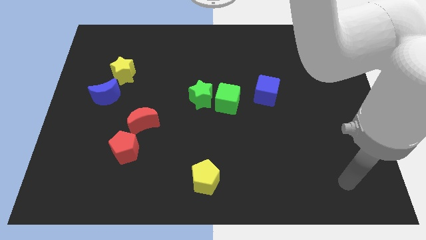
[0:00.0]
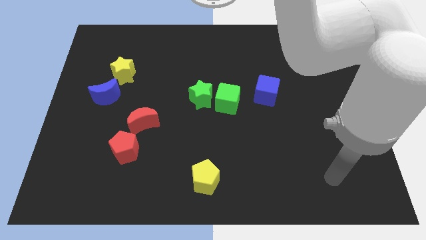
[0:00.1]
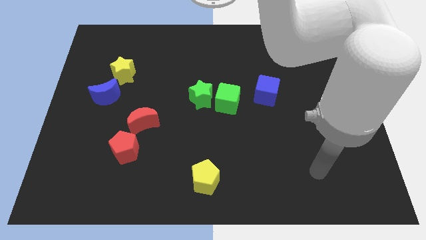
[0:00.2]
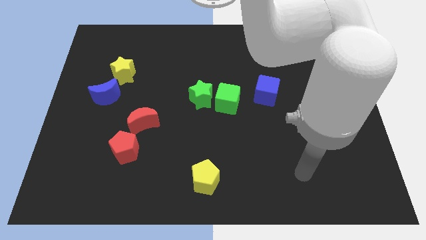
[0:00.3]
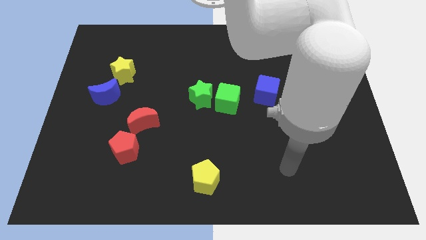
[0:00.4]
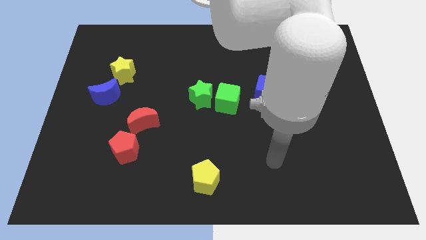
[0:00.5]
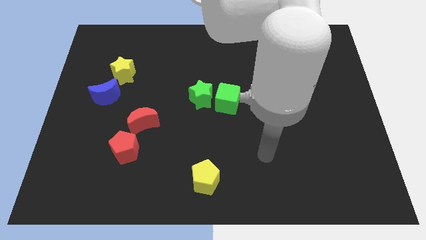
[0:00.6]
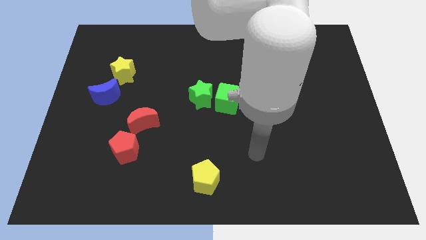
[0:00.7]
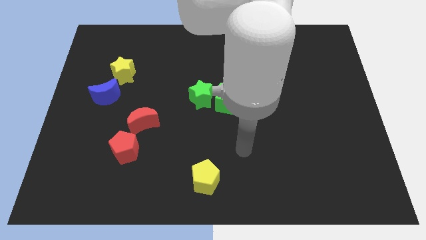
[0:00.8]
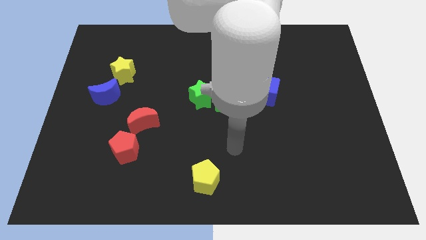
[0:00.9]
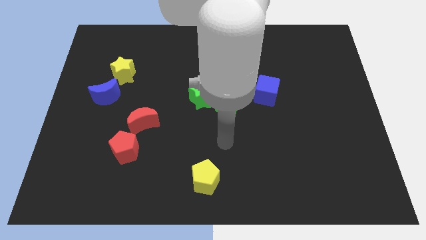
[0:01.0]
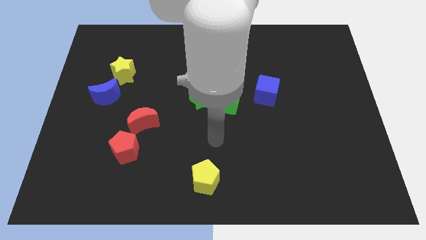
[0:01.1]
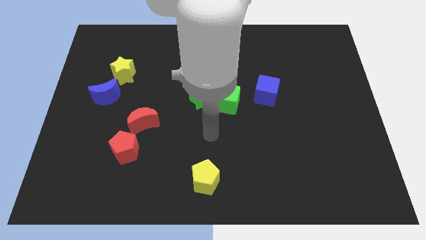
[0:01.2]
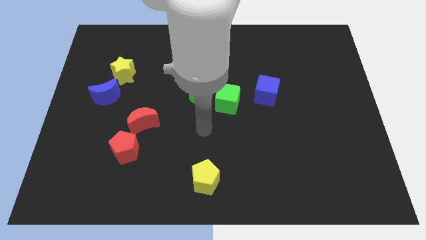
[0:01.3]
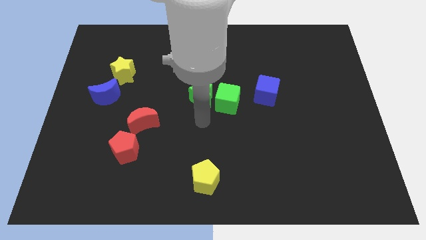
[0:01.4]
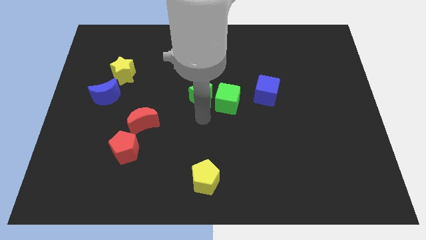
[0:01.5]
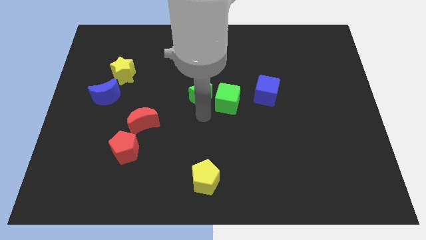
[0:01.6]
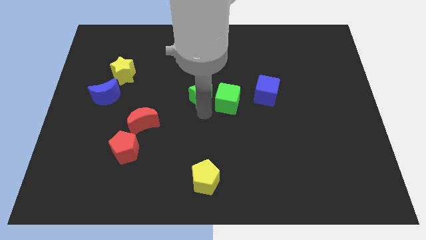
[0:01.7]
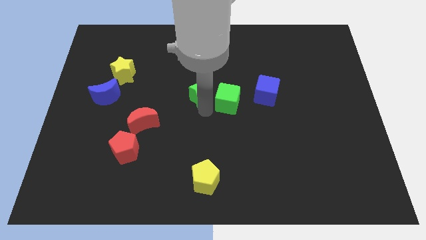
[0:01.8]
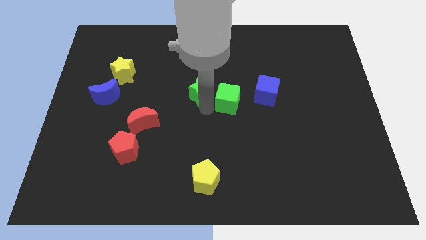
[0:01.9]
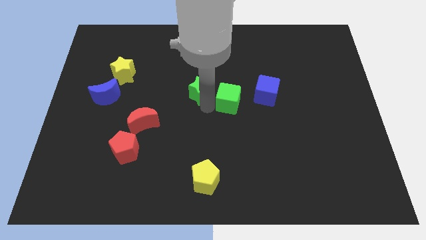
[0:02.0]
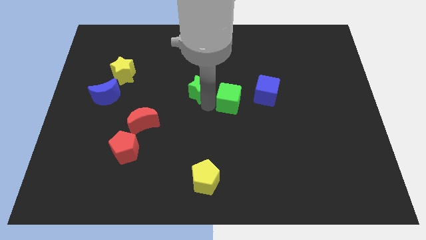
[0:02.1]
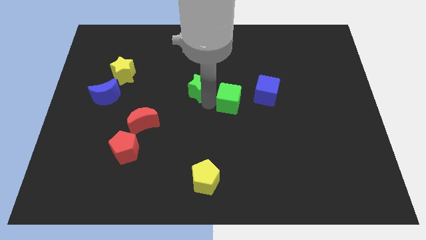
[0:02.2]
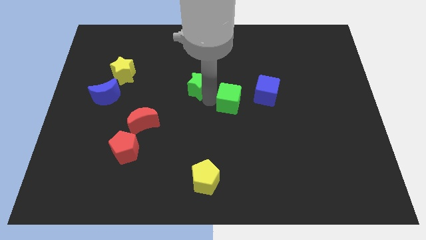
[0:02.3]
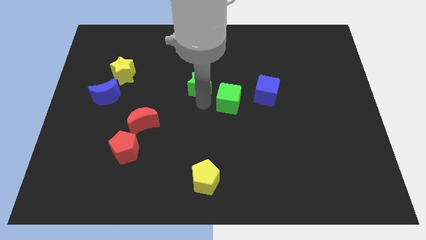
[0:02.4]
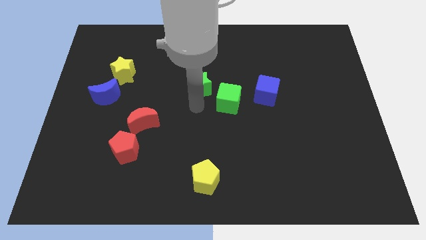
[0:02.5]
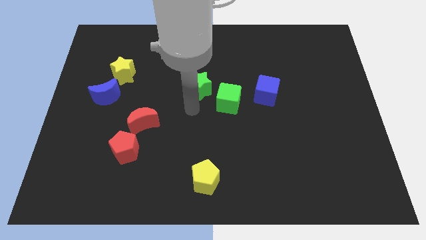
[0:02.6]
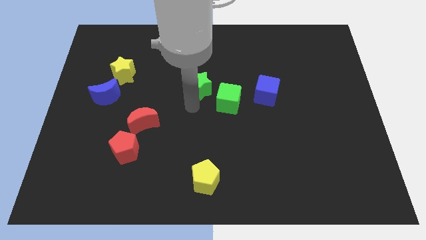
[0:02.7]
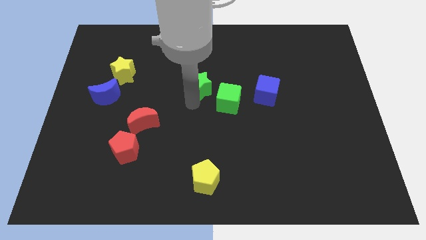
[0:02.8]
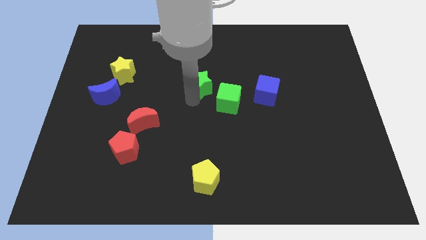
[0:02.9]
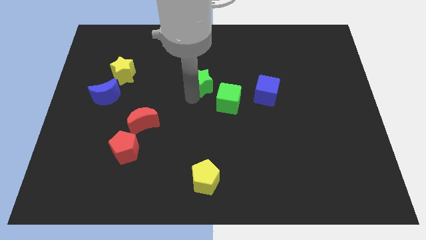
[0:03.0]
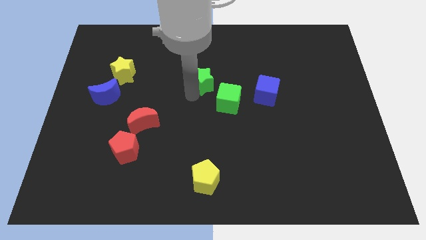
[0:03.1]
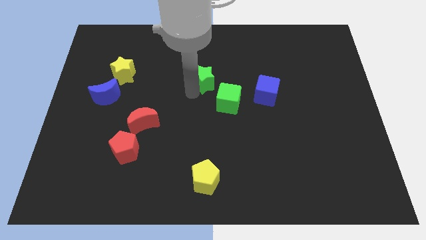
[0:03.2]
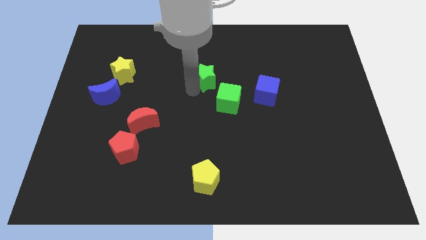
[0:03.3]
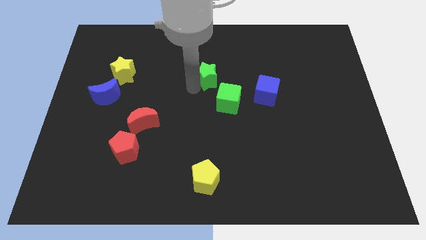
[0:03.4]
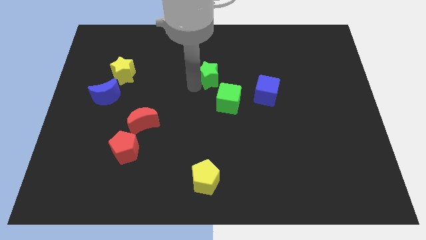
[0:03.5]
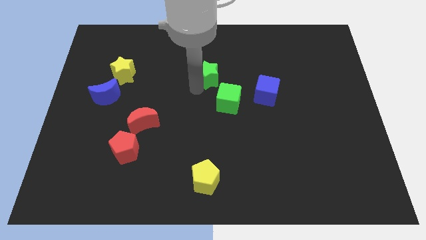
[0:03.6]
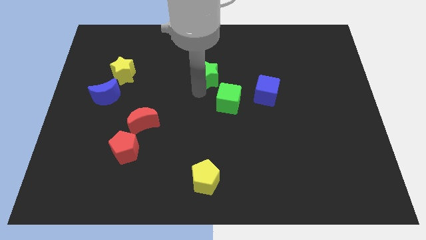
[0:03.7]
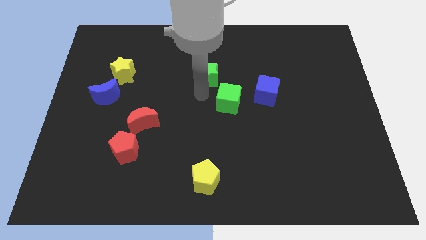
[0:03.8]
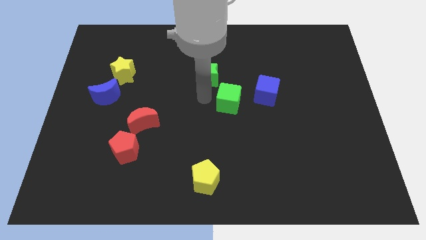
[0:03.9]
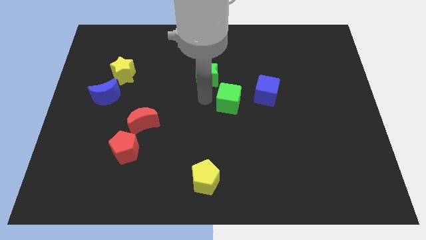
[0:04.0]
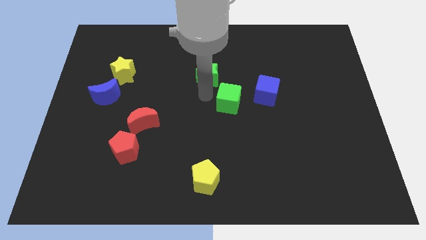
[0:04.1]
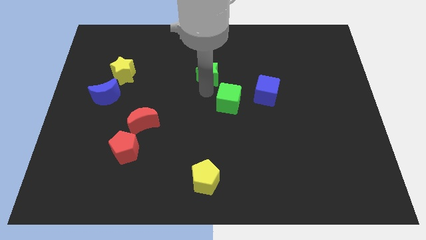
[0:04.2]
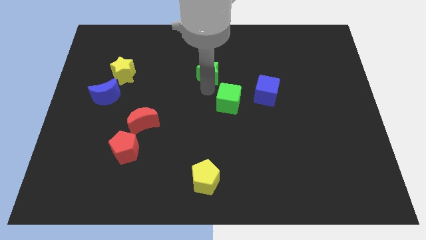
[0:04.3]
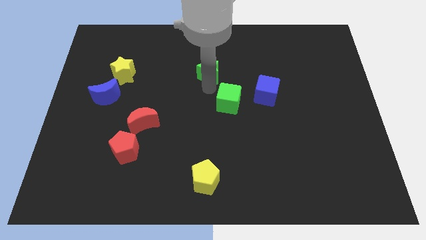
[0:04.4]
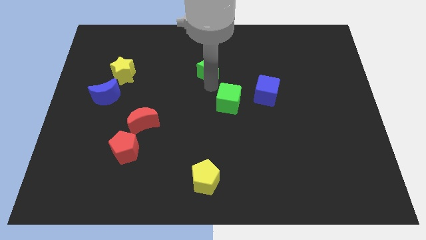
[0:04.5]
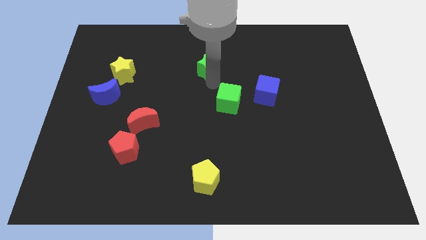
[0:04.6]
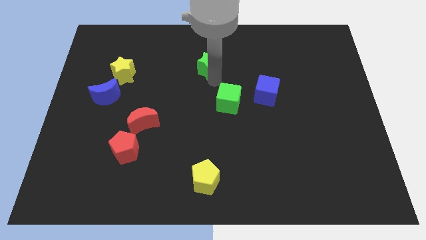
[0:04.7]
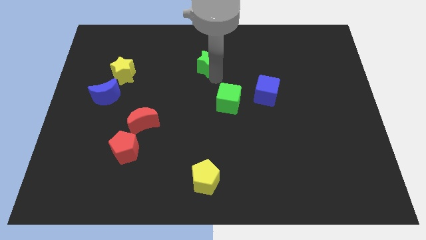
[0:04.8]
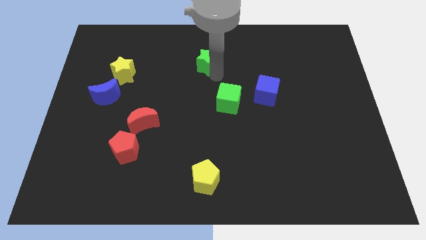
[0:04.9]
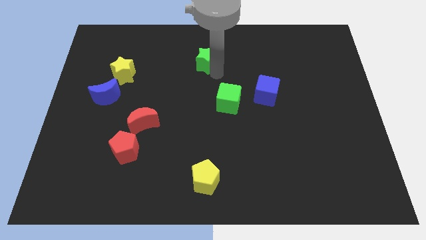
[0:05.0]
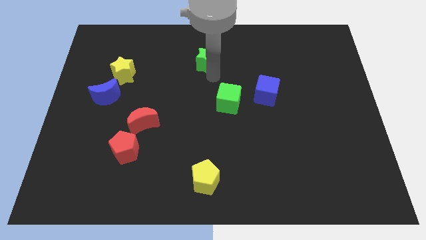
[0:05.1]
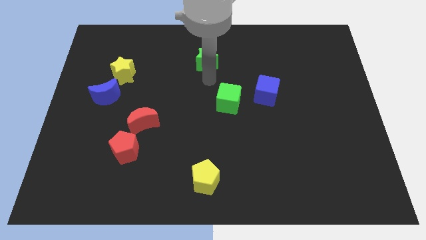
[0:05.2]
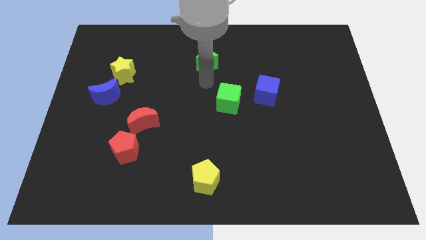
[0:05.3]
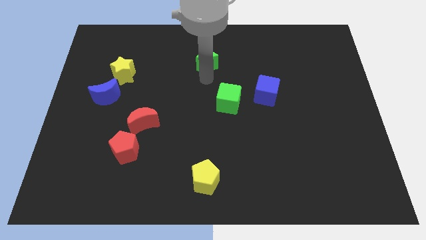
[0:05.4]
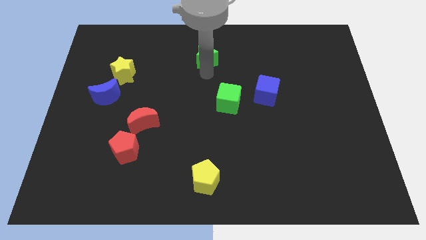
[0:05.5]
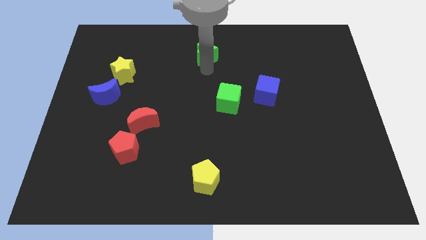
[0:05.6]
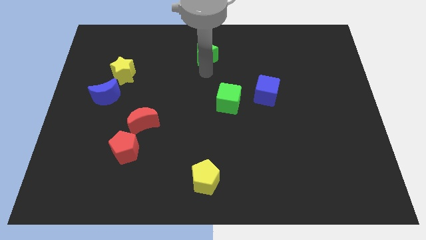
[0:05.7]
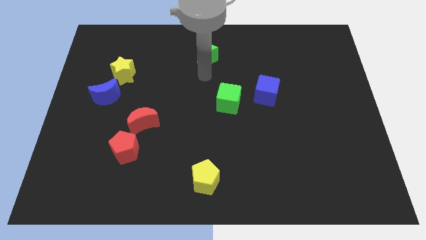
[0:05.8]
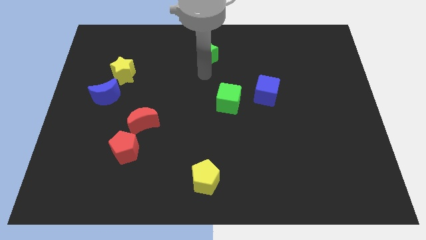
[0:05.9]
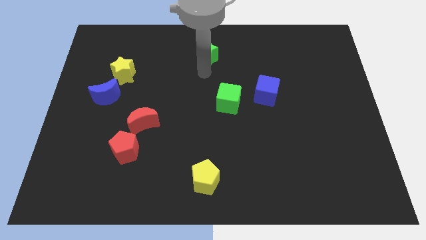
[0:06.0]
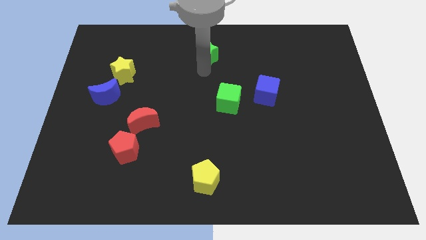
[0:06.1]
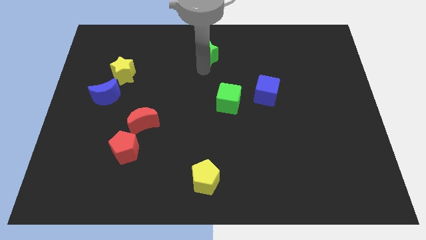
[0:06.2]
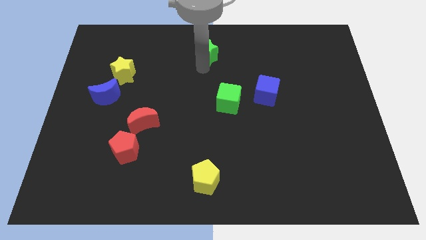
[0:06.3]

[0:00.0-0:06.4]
put the green star to the top
